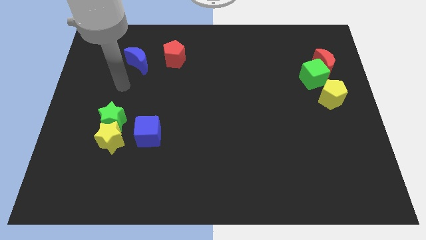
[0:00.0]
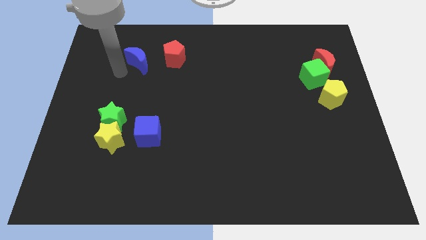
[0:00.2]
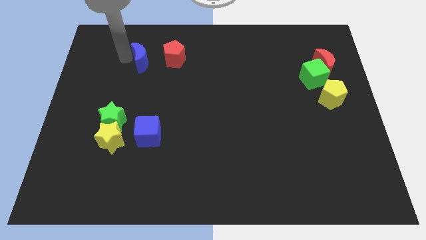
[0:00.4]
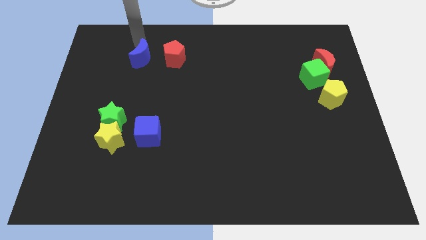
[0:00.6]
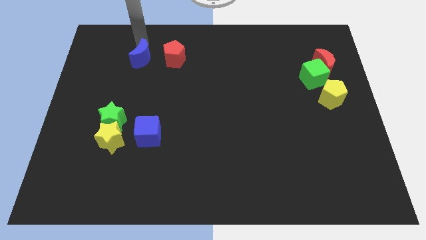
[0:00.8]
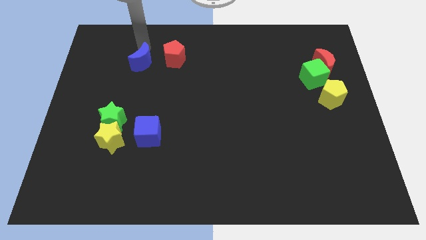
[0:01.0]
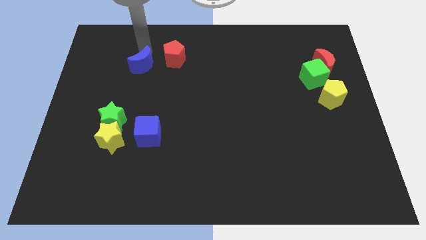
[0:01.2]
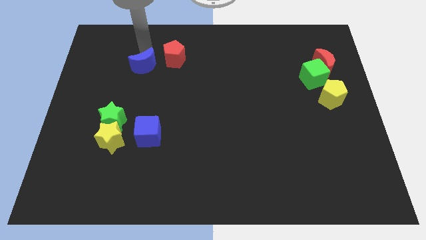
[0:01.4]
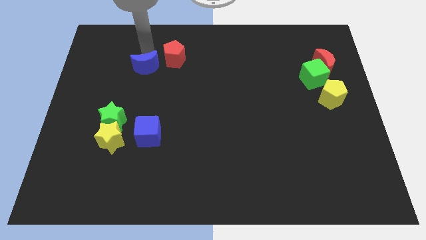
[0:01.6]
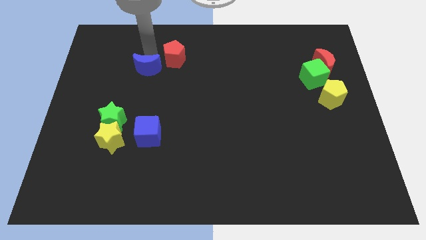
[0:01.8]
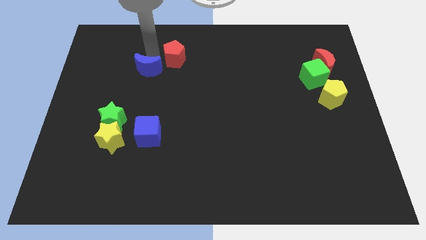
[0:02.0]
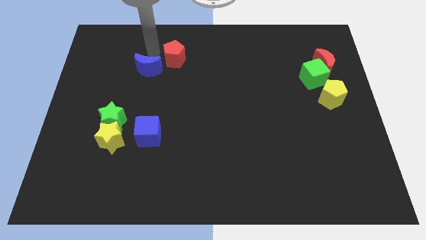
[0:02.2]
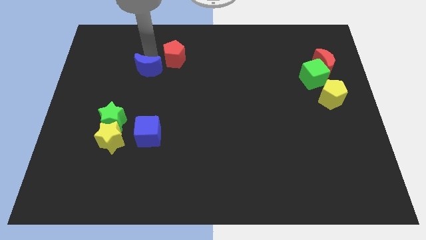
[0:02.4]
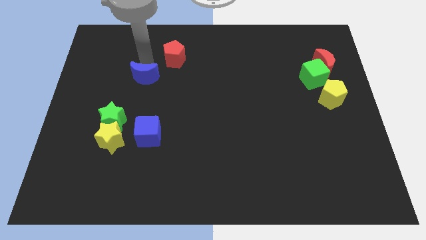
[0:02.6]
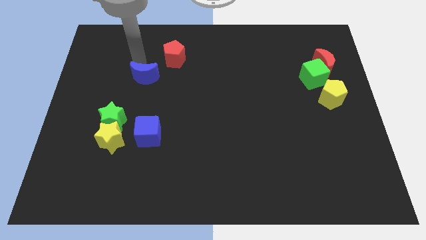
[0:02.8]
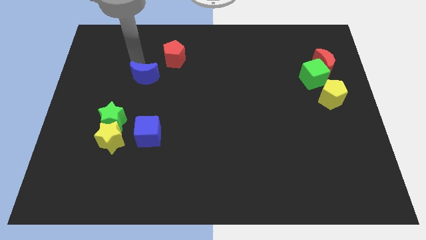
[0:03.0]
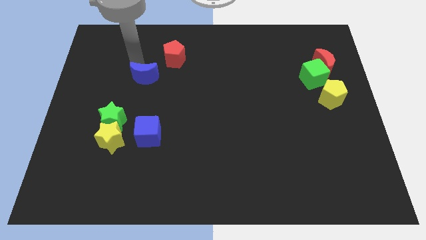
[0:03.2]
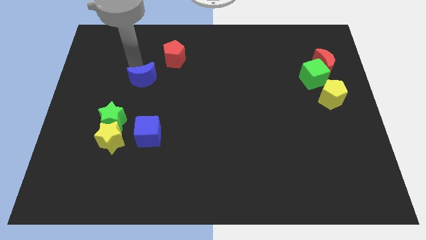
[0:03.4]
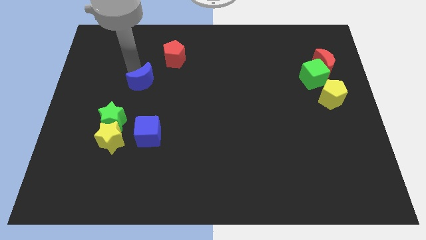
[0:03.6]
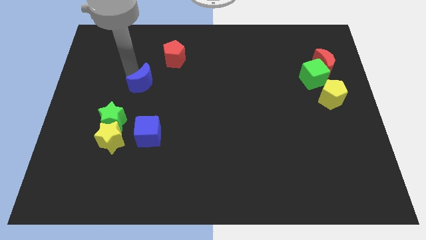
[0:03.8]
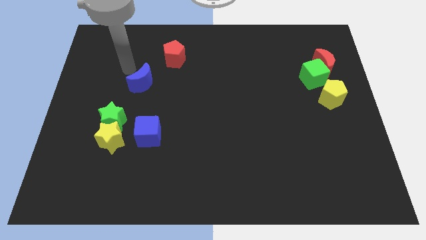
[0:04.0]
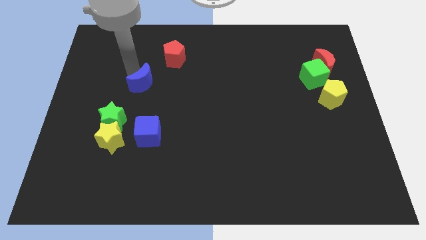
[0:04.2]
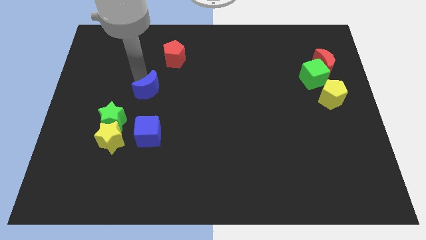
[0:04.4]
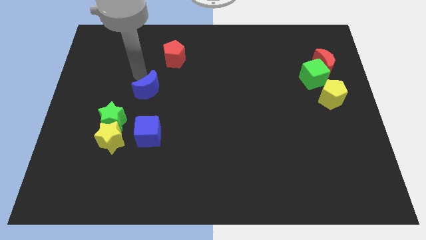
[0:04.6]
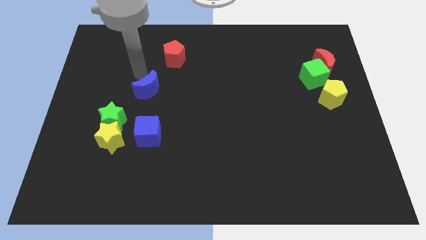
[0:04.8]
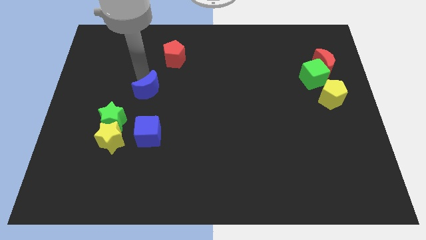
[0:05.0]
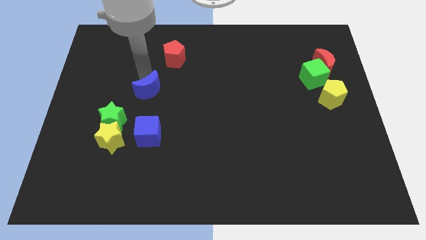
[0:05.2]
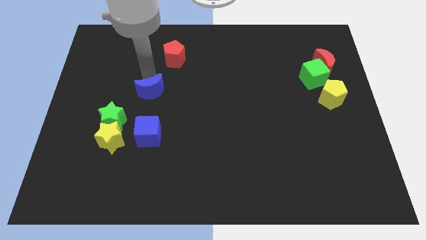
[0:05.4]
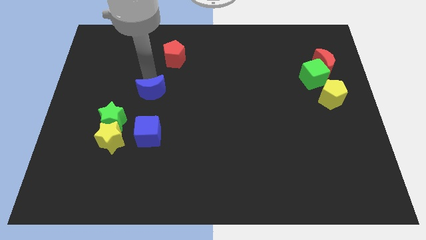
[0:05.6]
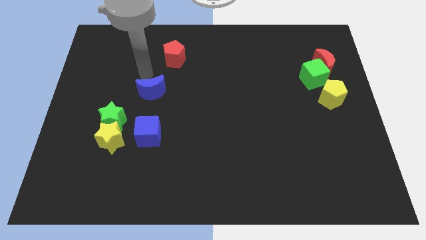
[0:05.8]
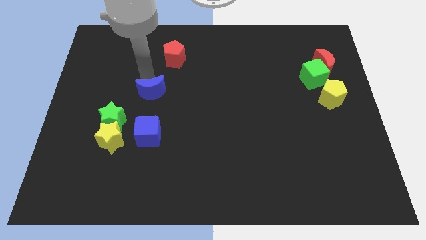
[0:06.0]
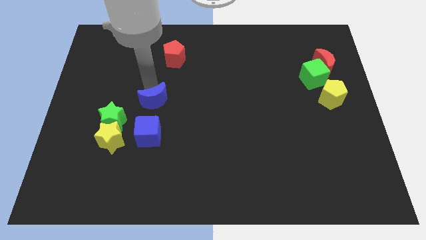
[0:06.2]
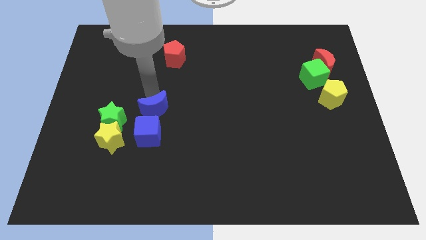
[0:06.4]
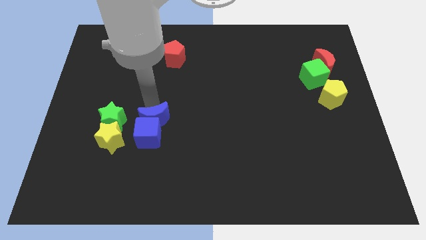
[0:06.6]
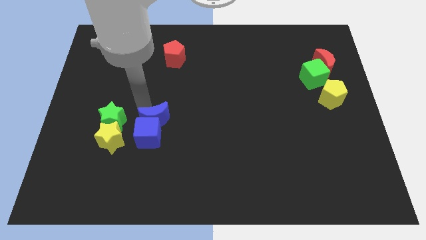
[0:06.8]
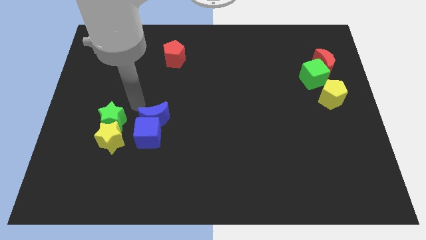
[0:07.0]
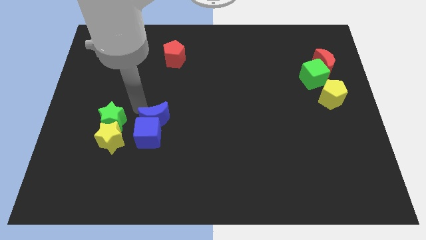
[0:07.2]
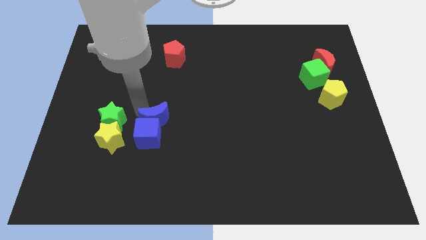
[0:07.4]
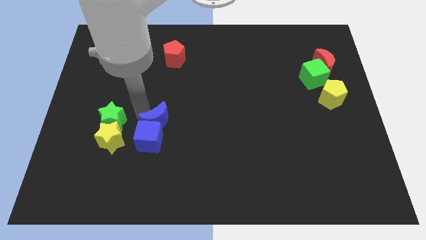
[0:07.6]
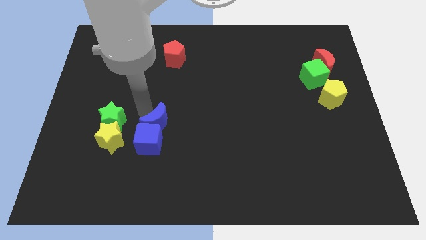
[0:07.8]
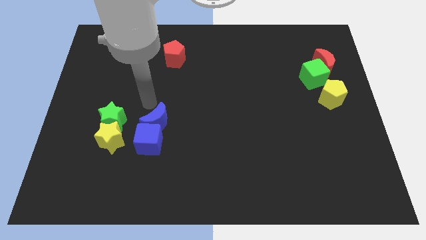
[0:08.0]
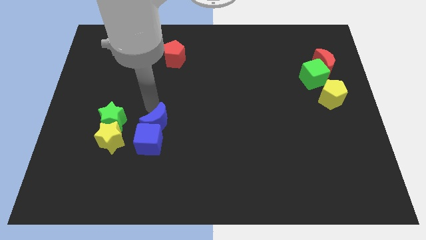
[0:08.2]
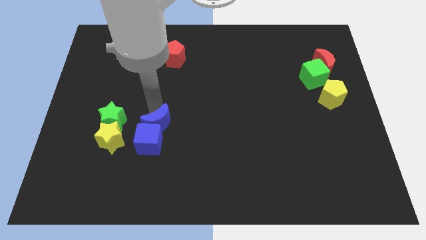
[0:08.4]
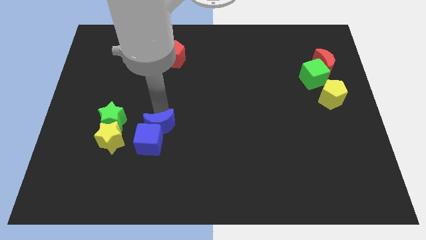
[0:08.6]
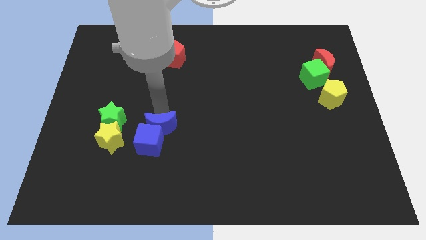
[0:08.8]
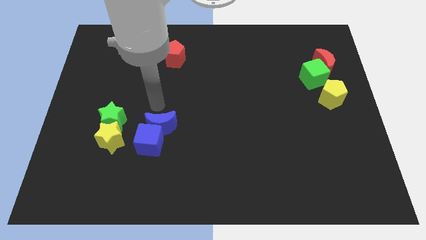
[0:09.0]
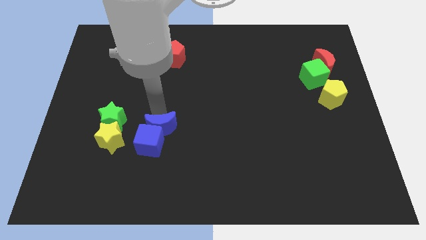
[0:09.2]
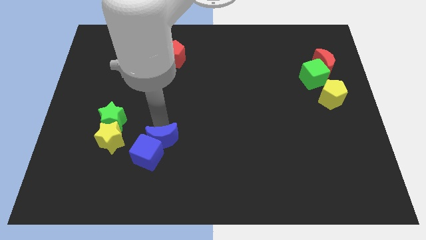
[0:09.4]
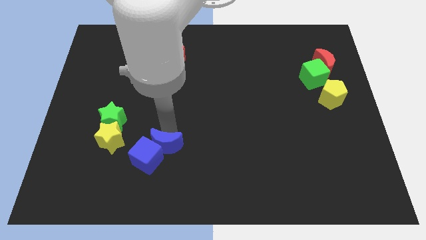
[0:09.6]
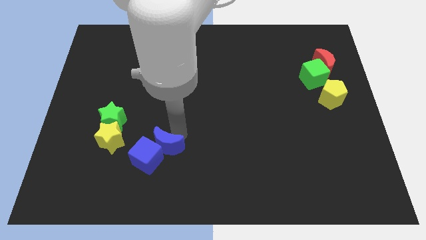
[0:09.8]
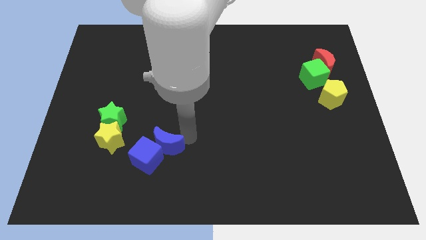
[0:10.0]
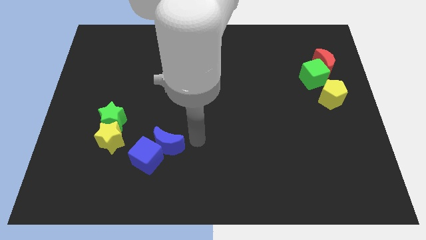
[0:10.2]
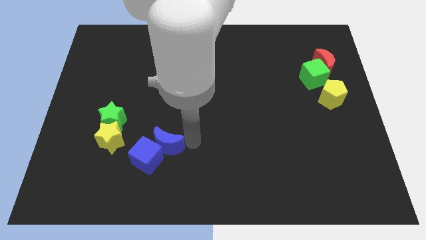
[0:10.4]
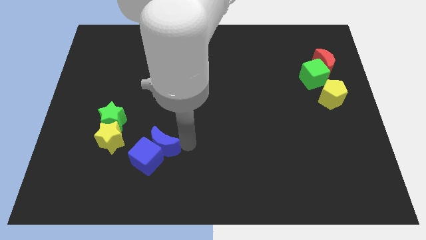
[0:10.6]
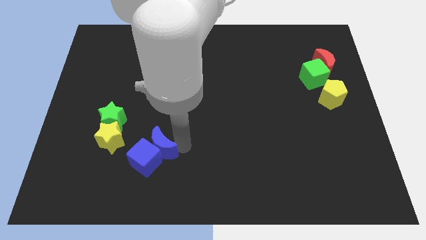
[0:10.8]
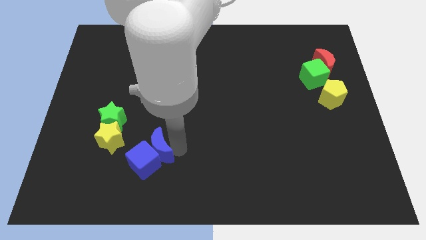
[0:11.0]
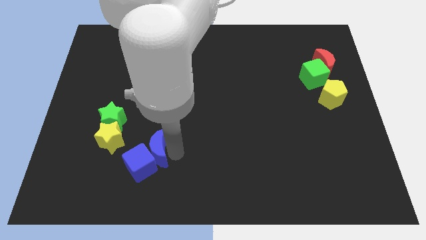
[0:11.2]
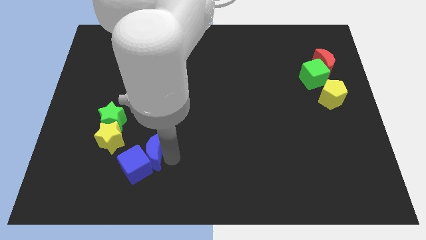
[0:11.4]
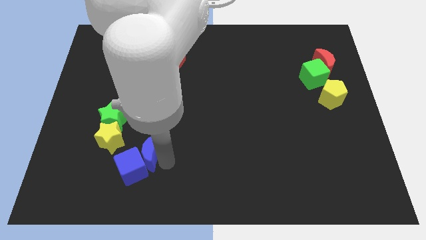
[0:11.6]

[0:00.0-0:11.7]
slide the blue moon to the bottom right side of the green star

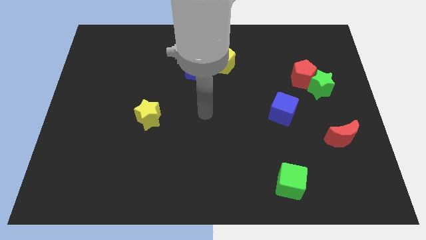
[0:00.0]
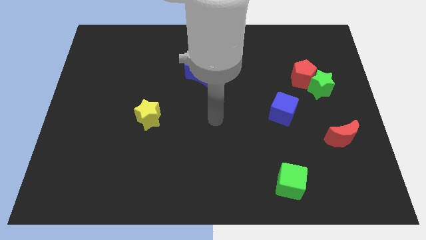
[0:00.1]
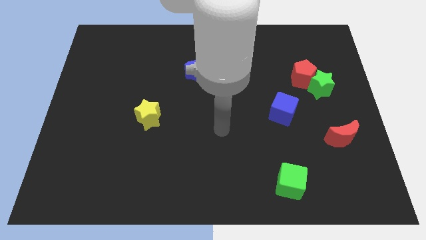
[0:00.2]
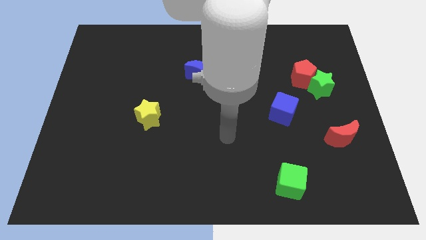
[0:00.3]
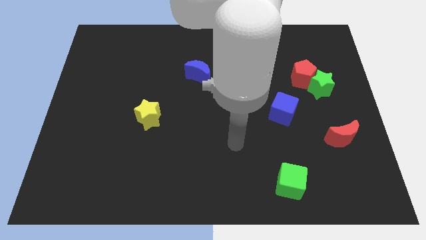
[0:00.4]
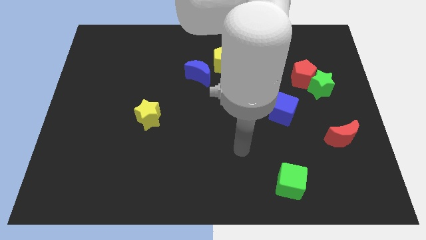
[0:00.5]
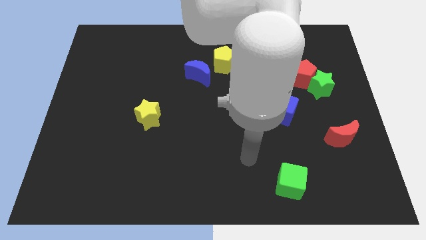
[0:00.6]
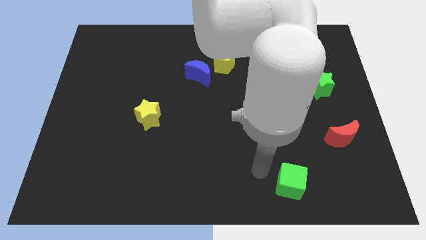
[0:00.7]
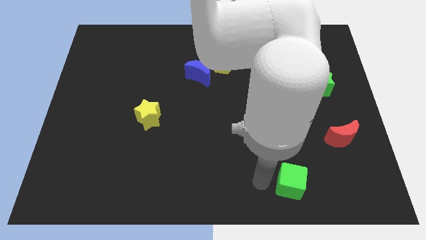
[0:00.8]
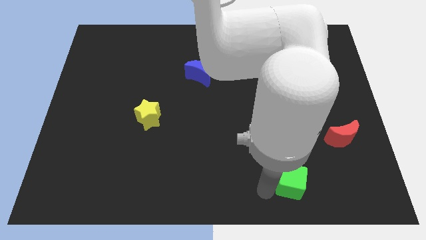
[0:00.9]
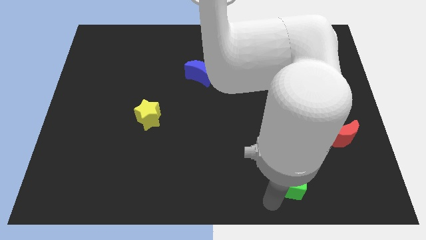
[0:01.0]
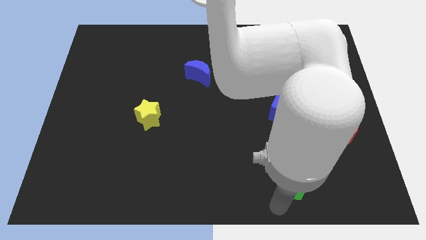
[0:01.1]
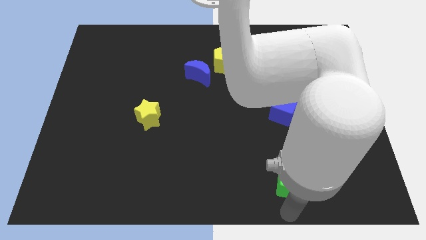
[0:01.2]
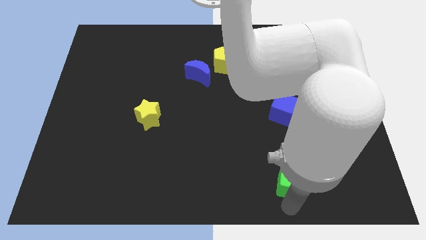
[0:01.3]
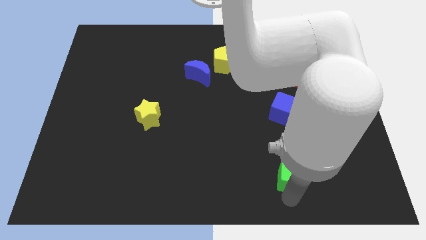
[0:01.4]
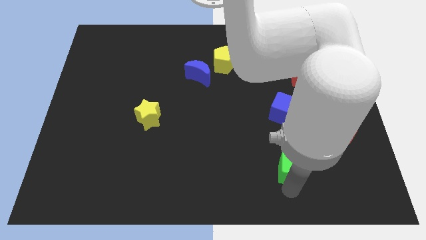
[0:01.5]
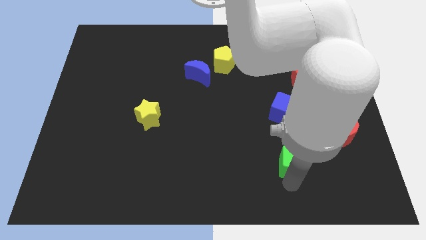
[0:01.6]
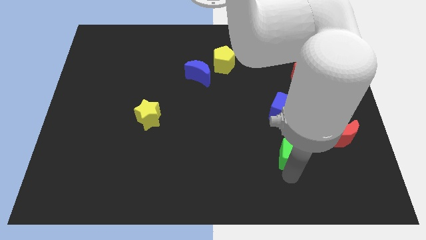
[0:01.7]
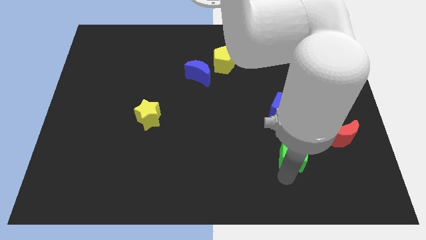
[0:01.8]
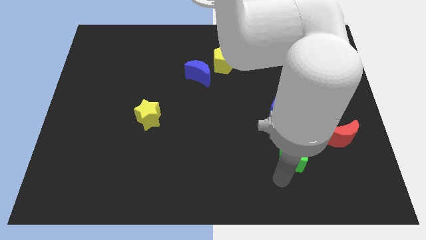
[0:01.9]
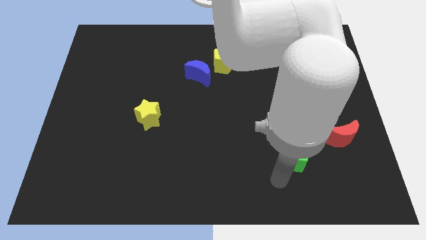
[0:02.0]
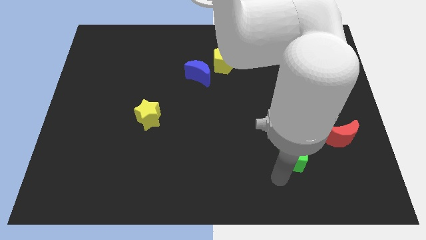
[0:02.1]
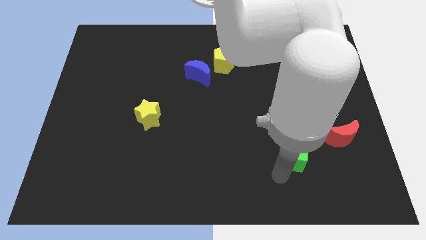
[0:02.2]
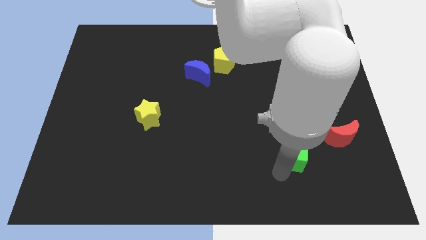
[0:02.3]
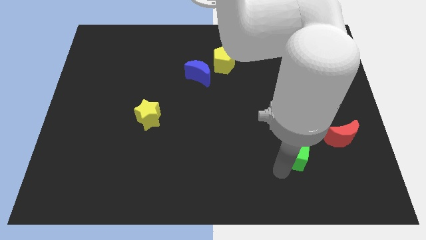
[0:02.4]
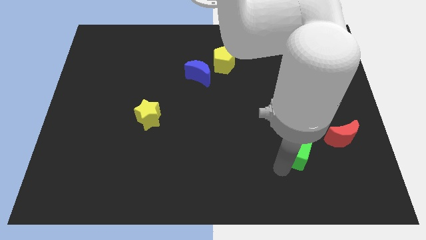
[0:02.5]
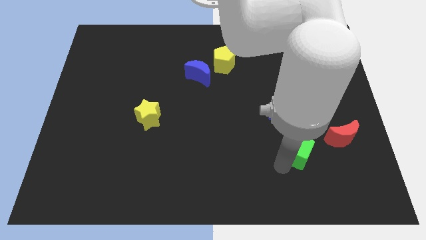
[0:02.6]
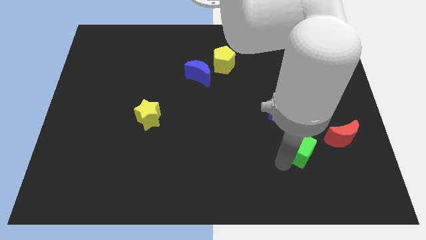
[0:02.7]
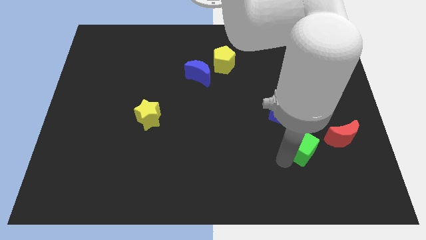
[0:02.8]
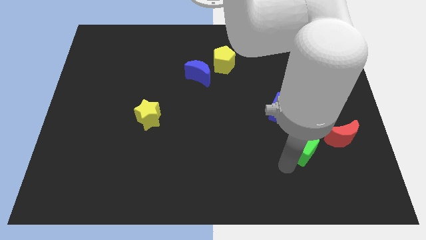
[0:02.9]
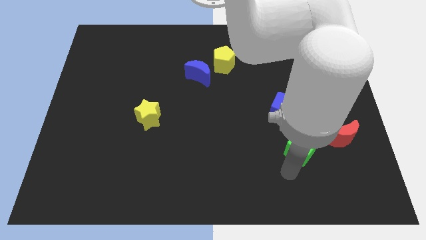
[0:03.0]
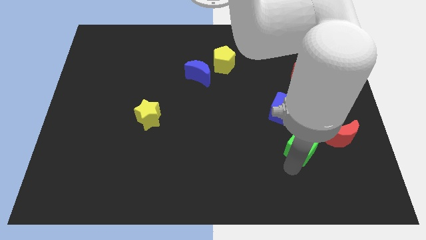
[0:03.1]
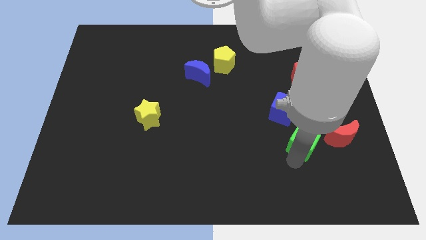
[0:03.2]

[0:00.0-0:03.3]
push the green cube to the bottom right side of the blue cube
